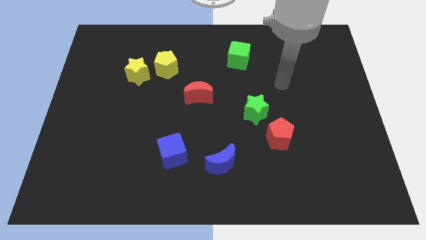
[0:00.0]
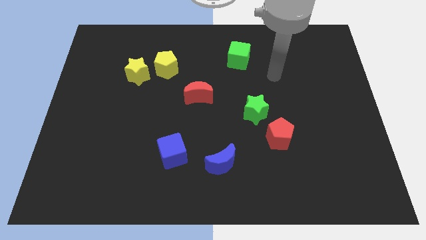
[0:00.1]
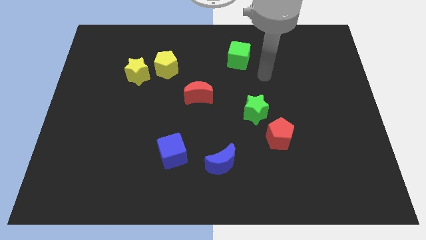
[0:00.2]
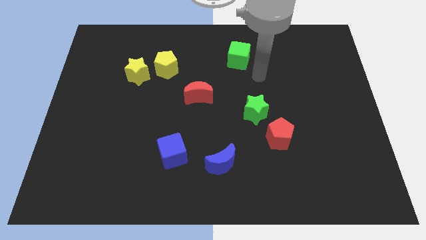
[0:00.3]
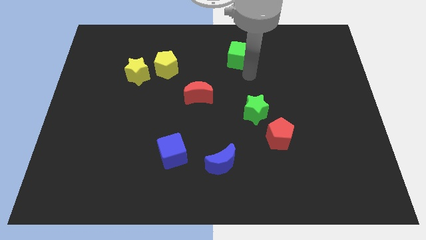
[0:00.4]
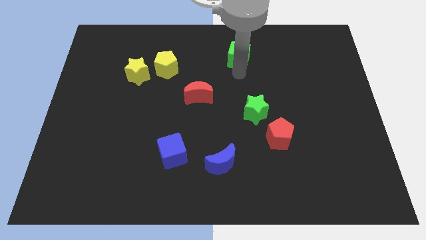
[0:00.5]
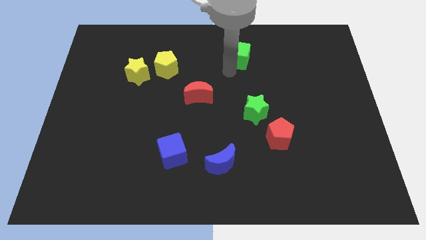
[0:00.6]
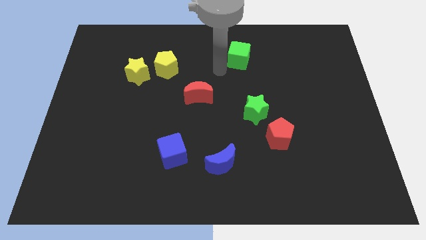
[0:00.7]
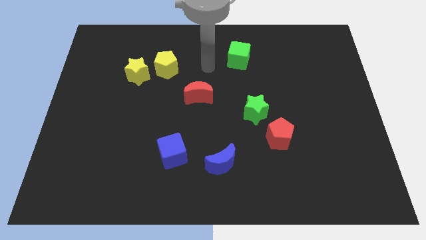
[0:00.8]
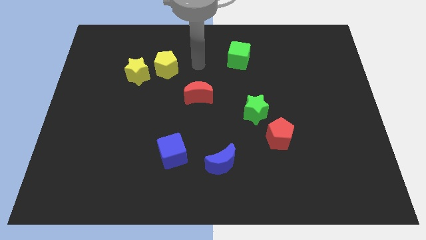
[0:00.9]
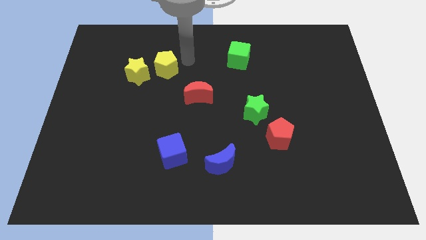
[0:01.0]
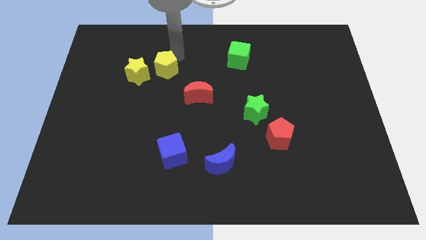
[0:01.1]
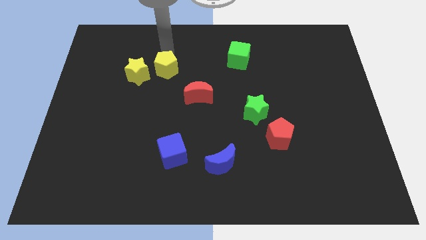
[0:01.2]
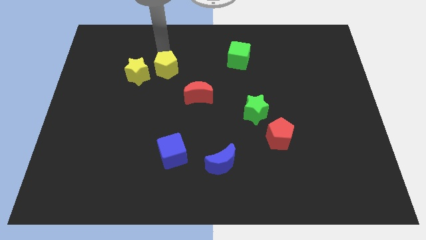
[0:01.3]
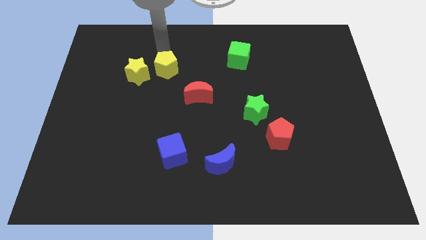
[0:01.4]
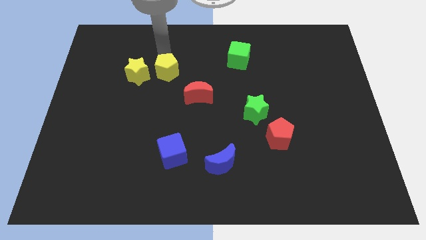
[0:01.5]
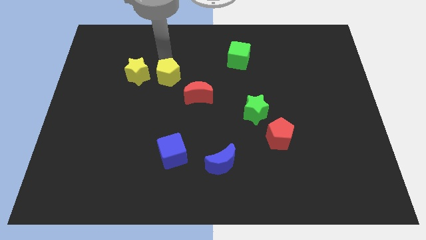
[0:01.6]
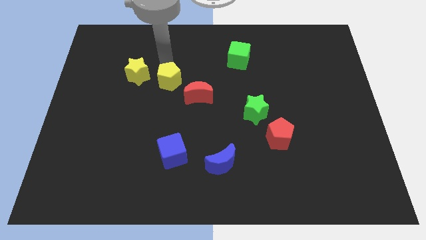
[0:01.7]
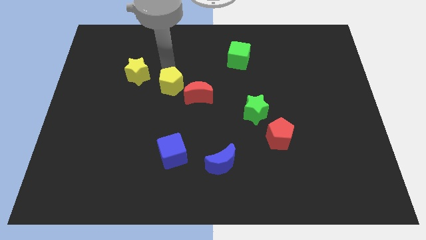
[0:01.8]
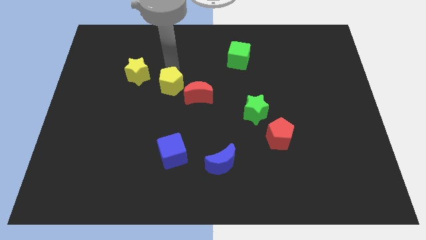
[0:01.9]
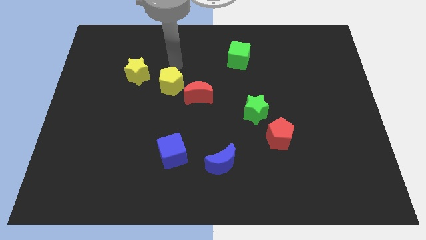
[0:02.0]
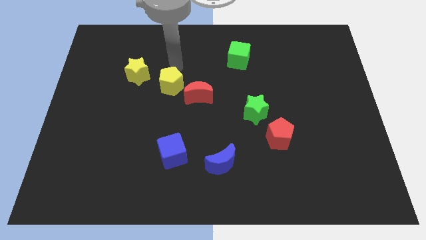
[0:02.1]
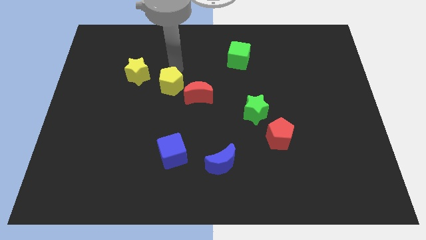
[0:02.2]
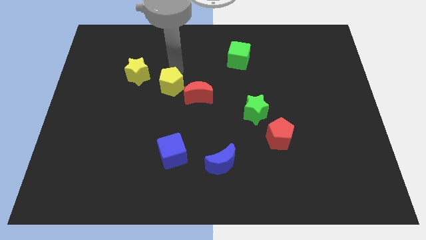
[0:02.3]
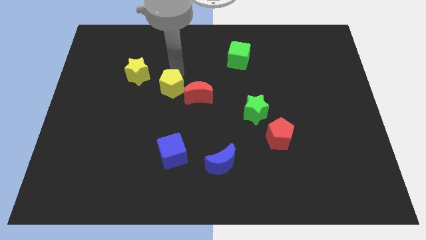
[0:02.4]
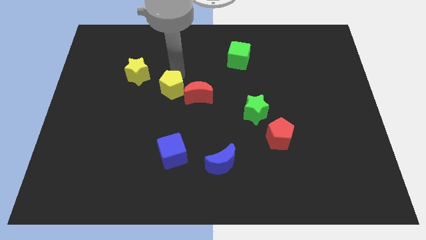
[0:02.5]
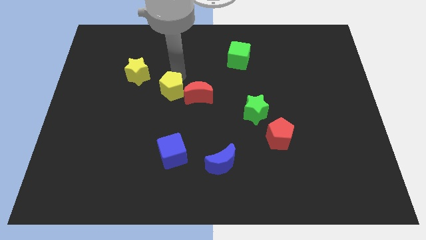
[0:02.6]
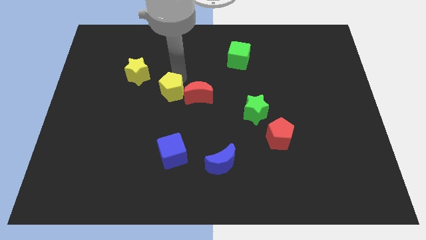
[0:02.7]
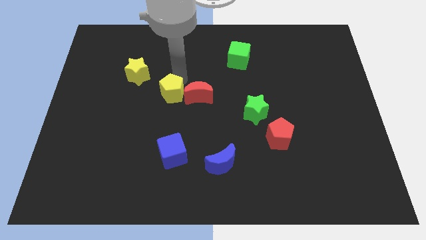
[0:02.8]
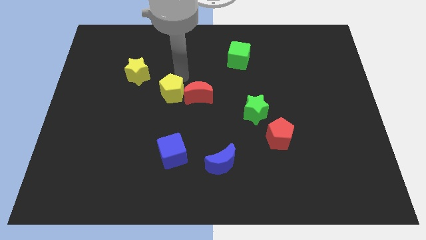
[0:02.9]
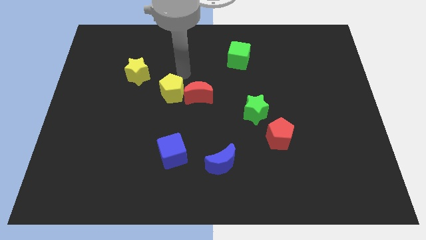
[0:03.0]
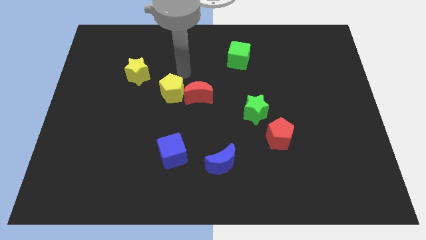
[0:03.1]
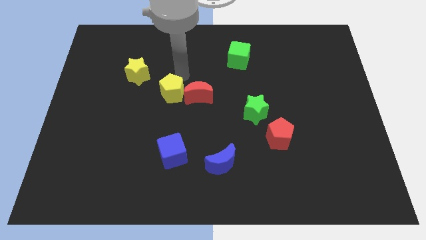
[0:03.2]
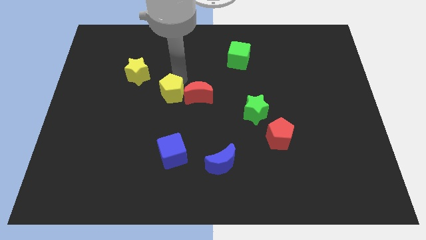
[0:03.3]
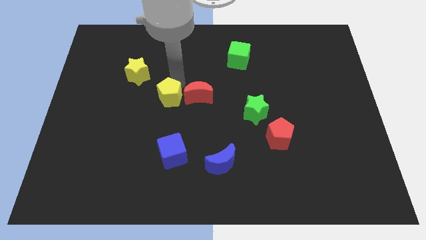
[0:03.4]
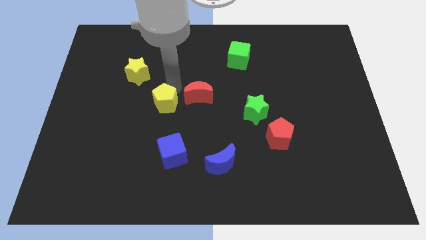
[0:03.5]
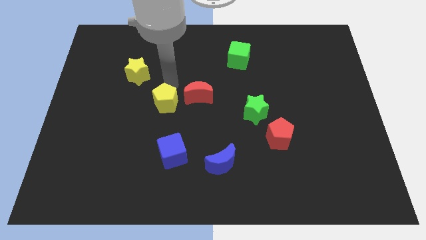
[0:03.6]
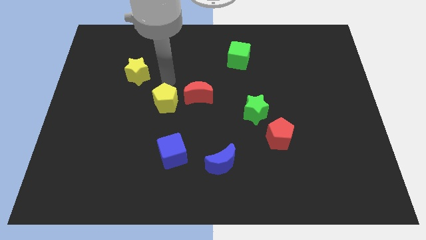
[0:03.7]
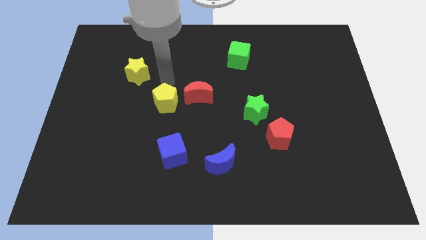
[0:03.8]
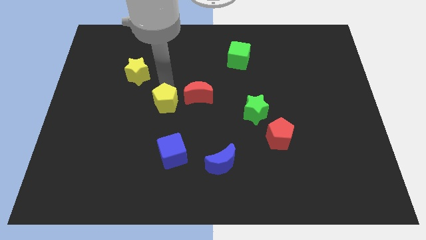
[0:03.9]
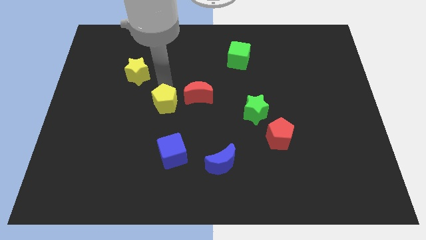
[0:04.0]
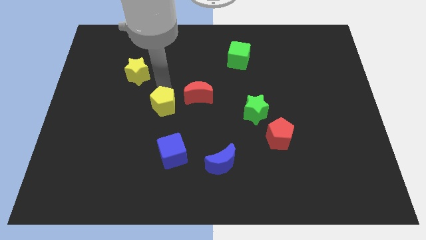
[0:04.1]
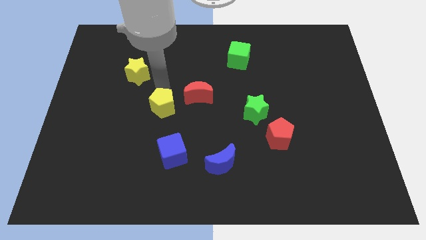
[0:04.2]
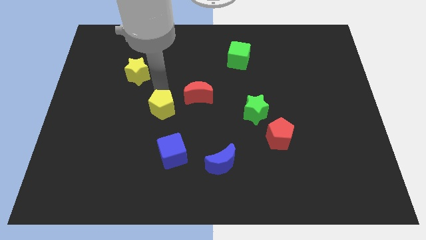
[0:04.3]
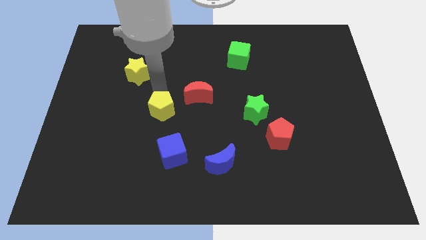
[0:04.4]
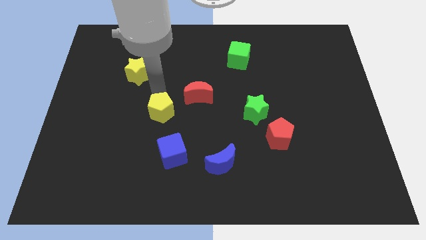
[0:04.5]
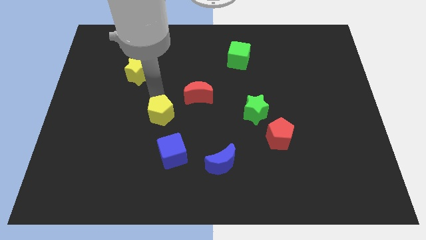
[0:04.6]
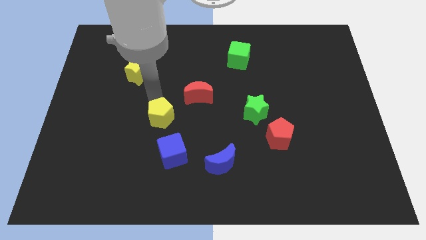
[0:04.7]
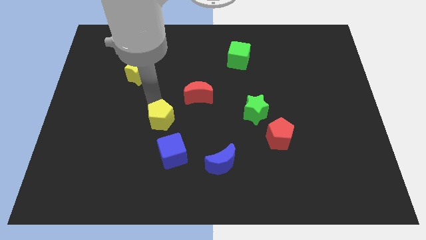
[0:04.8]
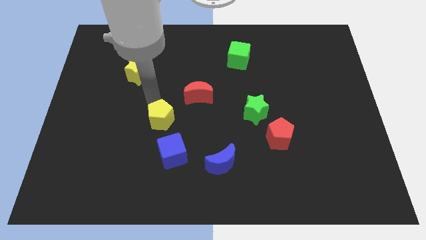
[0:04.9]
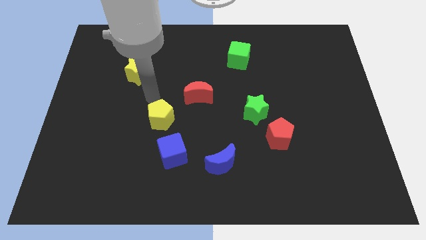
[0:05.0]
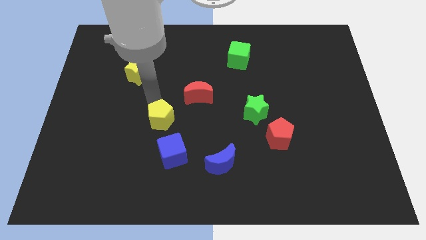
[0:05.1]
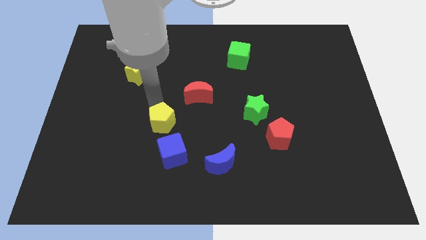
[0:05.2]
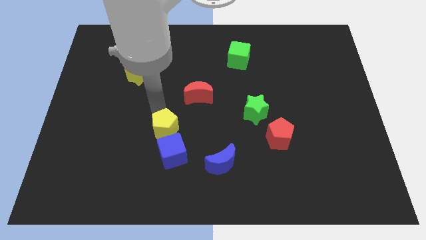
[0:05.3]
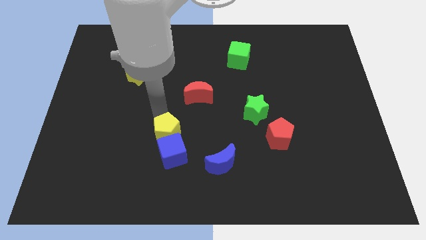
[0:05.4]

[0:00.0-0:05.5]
put the yellow pentagon close to the blue cube

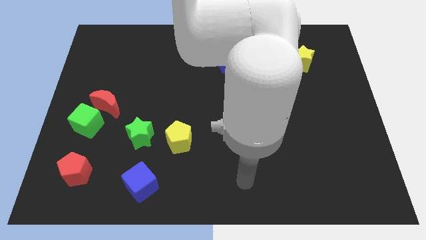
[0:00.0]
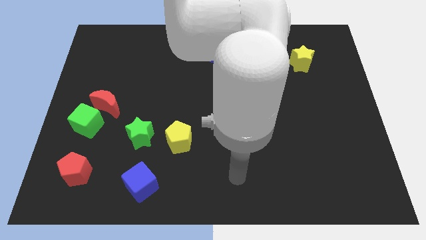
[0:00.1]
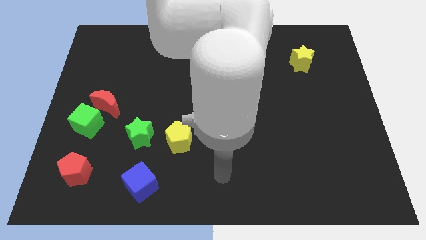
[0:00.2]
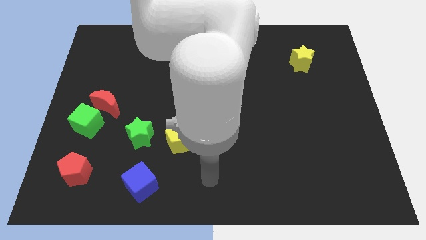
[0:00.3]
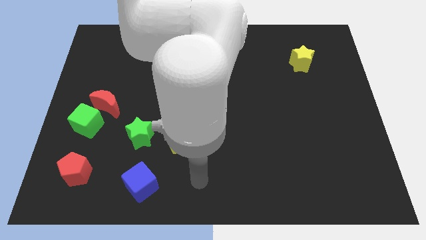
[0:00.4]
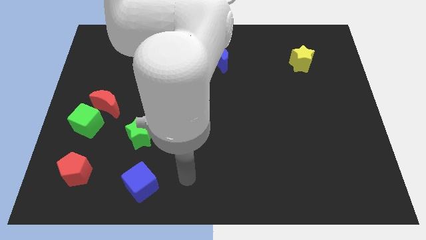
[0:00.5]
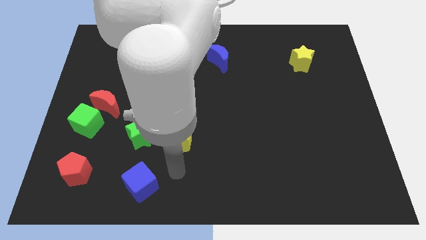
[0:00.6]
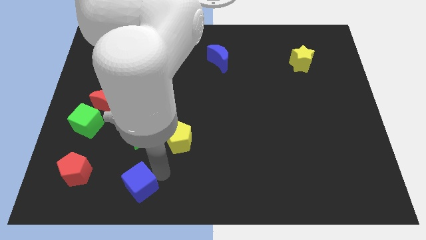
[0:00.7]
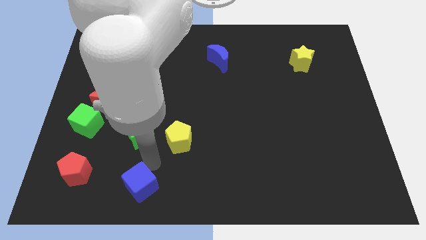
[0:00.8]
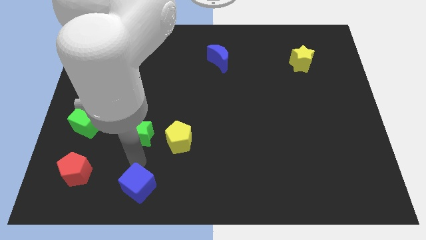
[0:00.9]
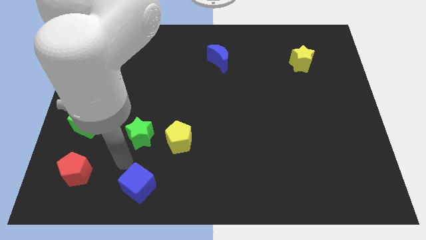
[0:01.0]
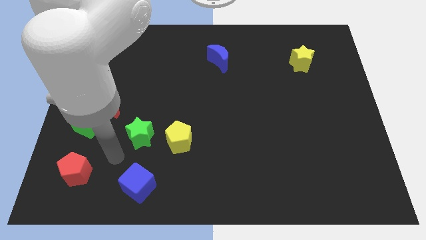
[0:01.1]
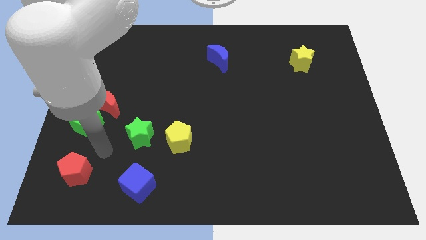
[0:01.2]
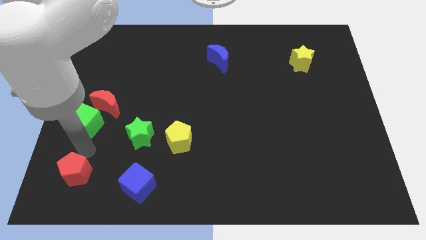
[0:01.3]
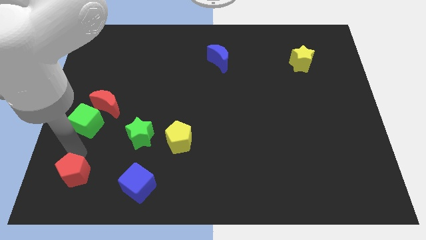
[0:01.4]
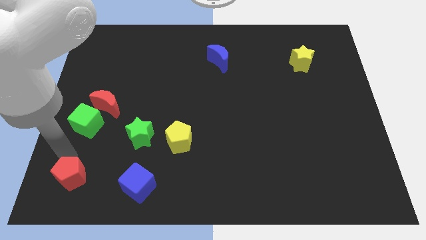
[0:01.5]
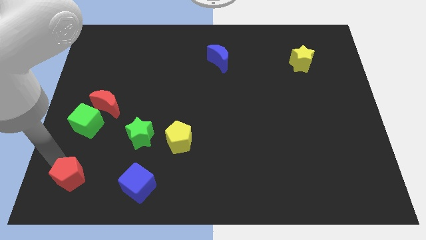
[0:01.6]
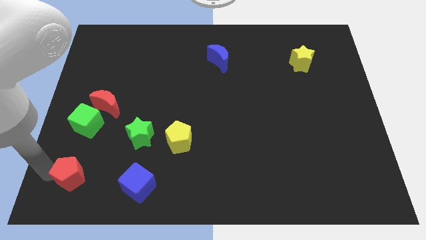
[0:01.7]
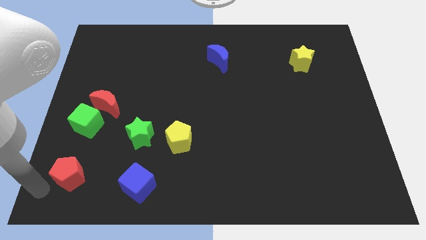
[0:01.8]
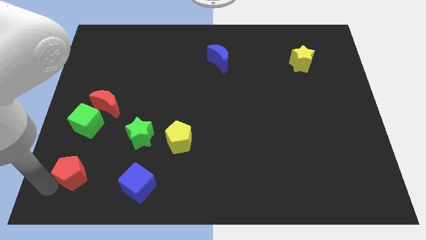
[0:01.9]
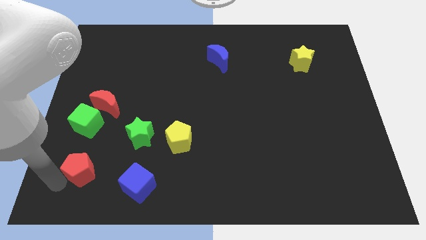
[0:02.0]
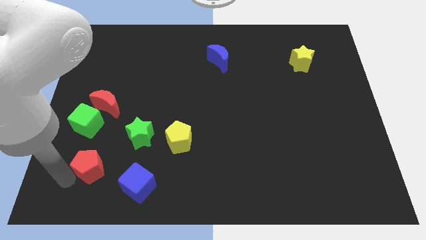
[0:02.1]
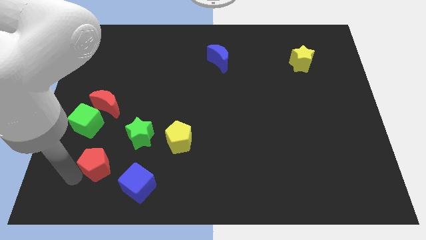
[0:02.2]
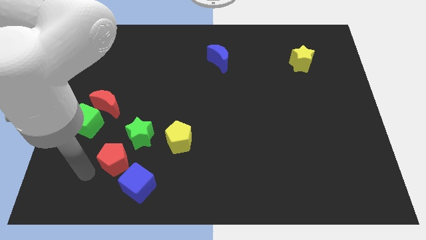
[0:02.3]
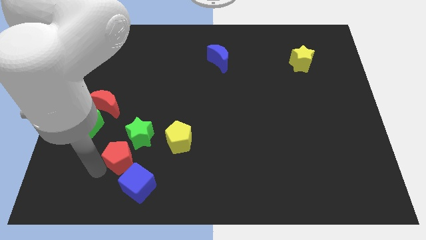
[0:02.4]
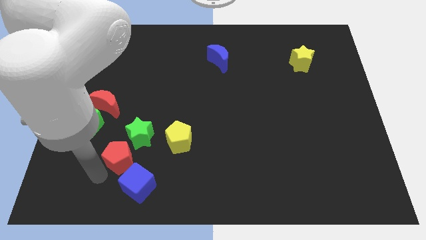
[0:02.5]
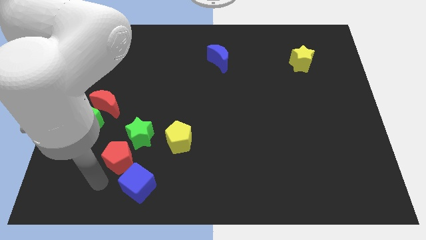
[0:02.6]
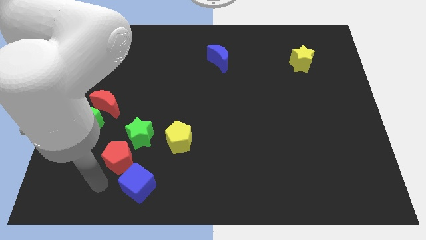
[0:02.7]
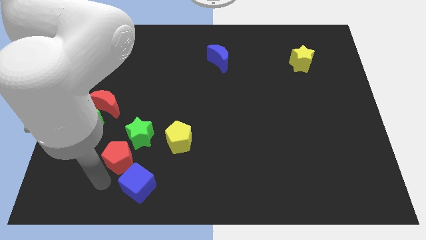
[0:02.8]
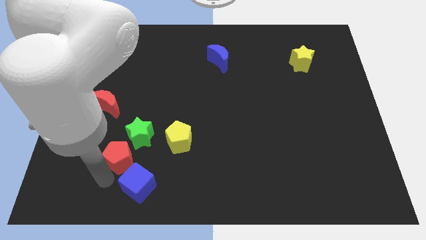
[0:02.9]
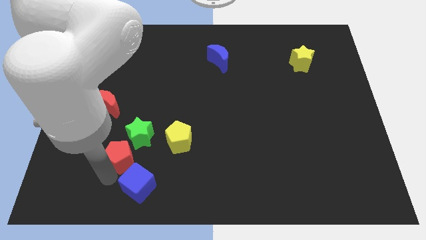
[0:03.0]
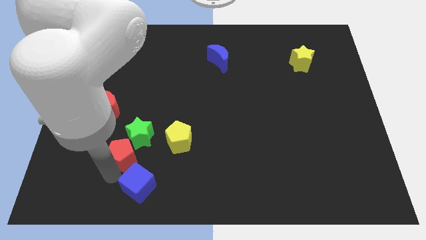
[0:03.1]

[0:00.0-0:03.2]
push the red pentagon close to the green star
